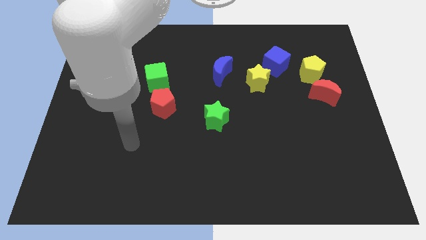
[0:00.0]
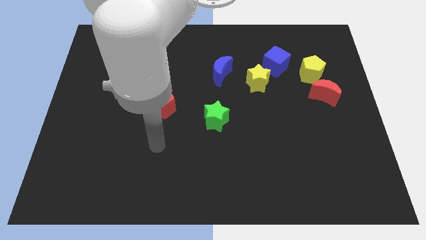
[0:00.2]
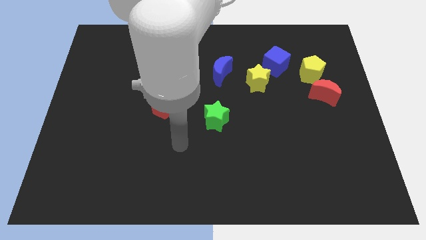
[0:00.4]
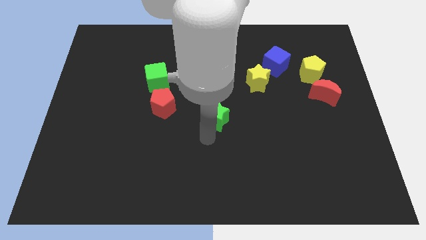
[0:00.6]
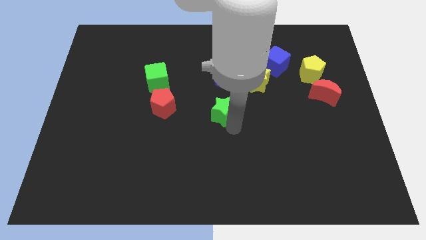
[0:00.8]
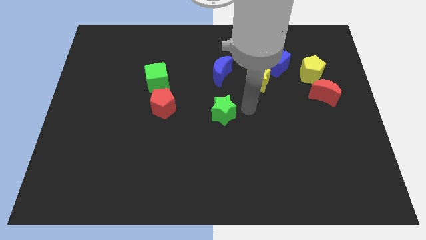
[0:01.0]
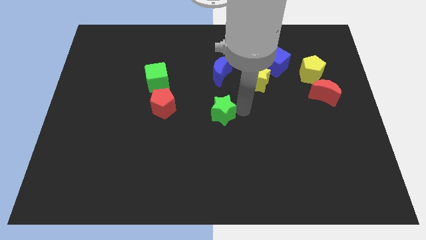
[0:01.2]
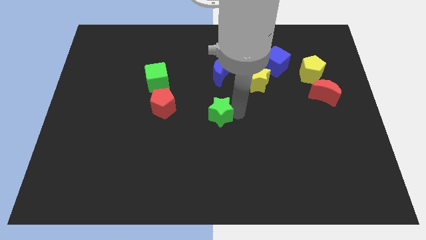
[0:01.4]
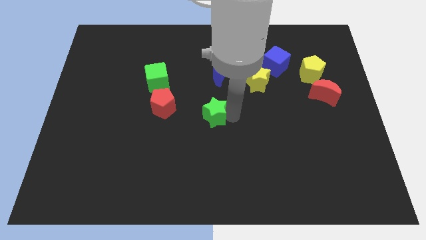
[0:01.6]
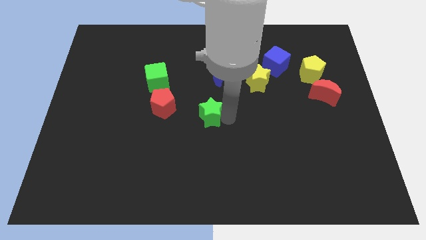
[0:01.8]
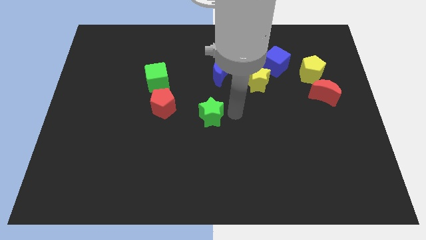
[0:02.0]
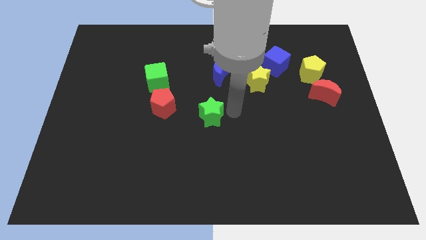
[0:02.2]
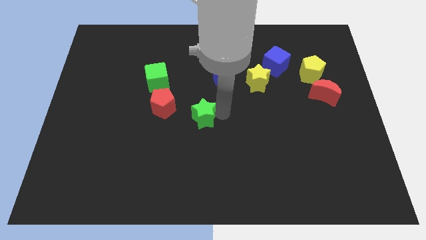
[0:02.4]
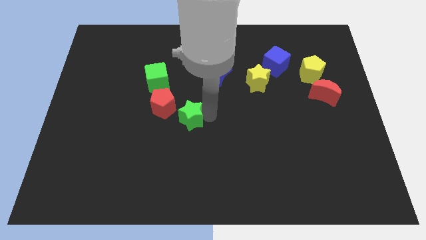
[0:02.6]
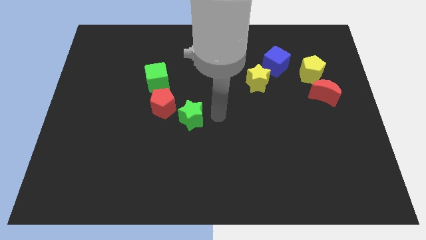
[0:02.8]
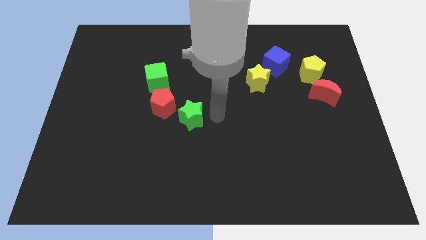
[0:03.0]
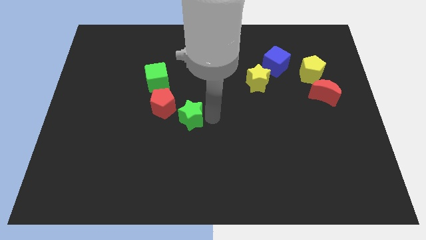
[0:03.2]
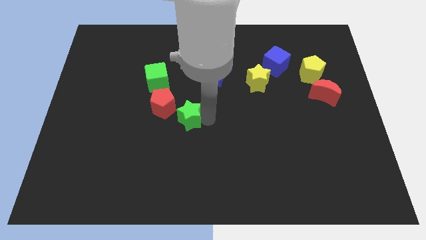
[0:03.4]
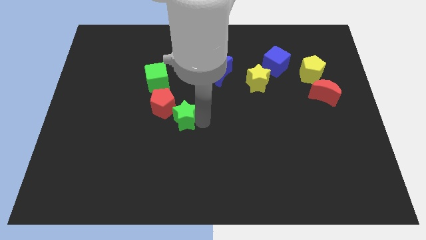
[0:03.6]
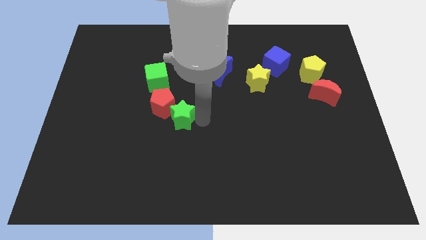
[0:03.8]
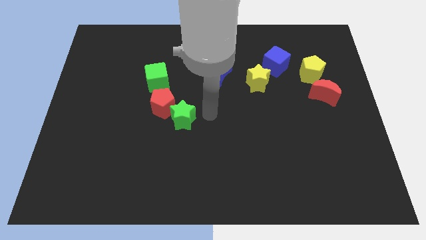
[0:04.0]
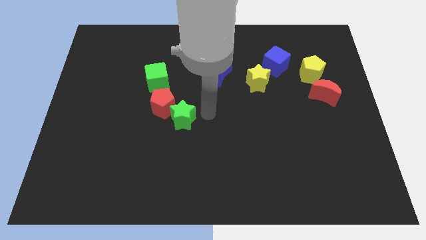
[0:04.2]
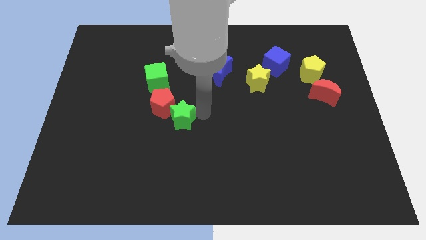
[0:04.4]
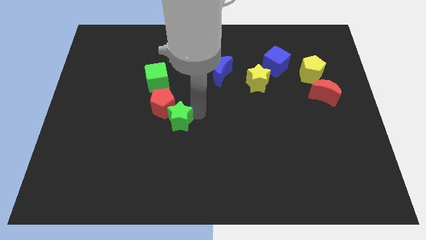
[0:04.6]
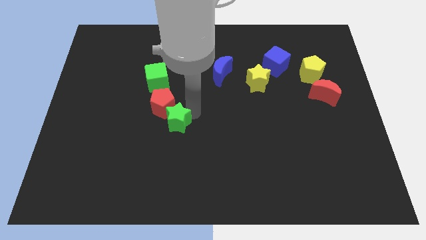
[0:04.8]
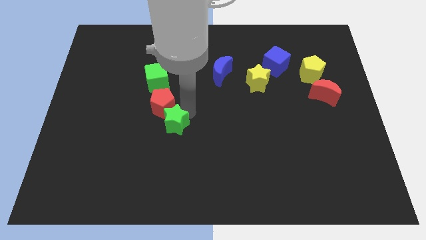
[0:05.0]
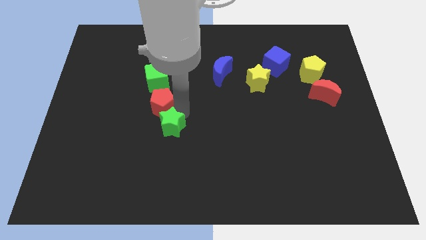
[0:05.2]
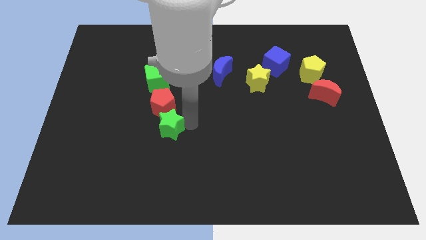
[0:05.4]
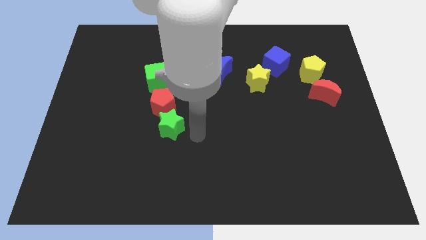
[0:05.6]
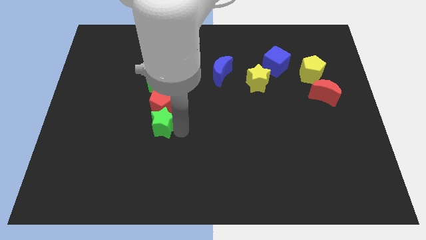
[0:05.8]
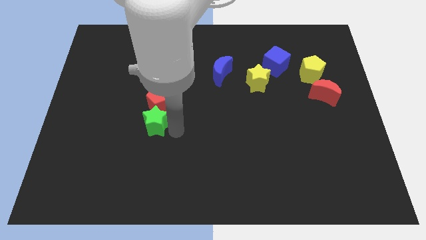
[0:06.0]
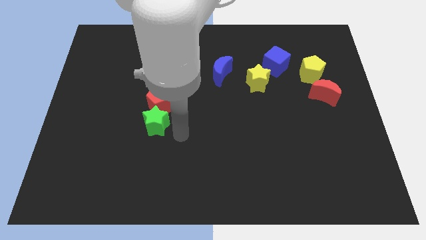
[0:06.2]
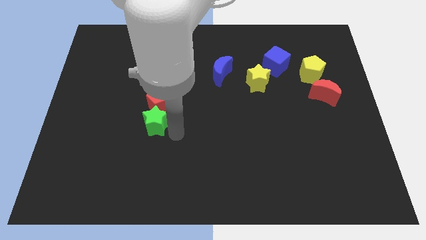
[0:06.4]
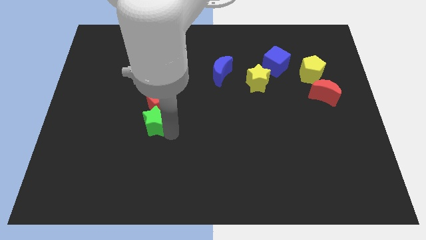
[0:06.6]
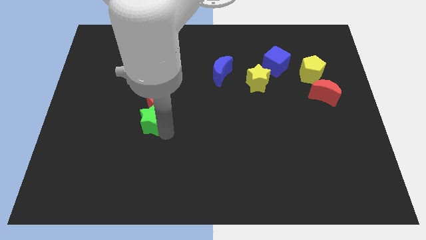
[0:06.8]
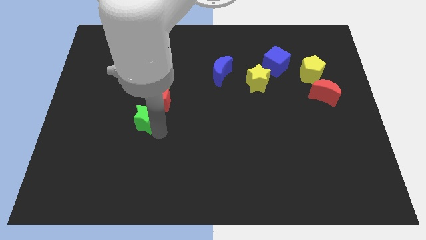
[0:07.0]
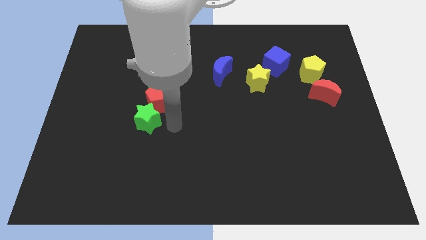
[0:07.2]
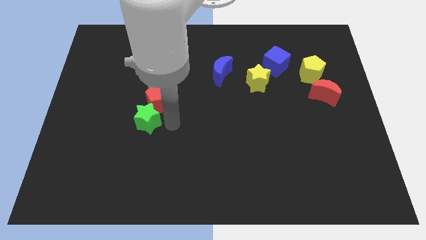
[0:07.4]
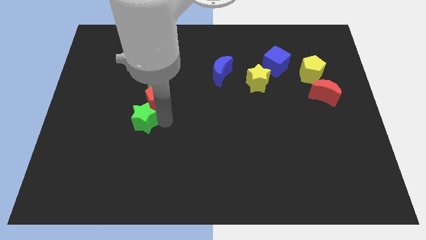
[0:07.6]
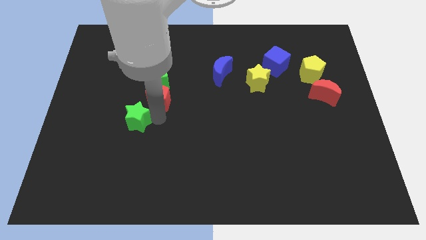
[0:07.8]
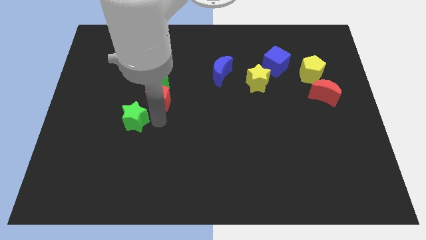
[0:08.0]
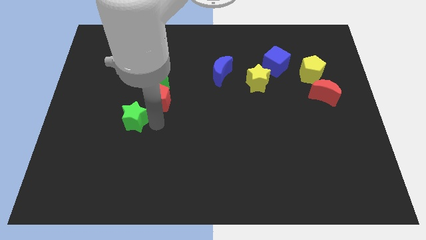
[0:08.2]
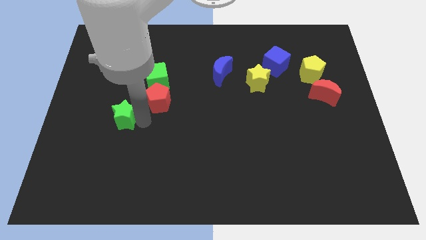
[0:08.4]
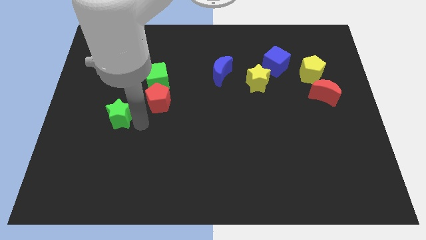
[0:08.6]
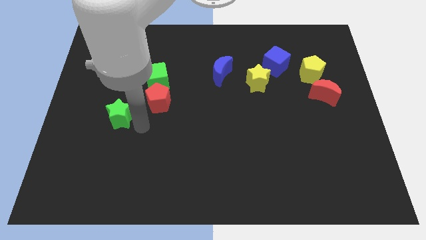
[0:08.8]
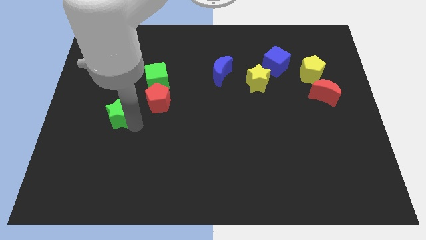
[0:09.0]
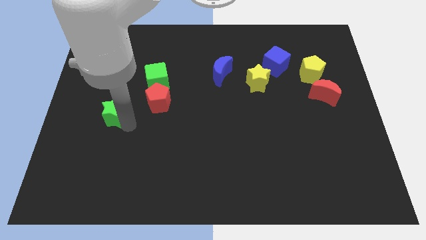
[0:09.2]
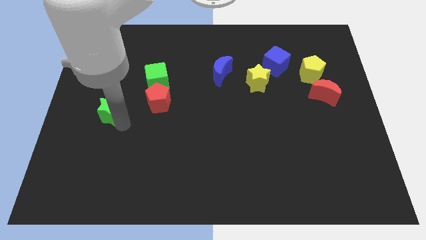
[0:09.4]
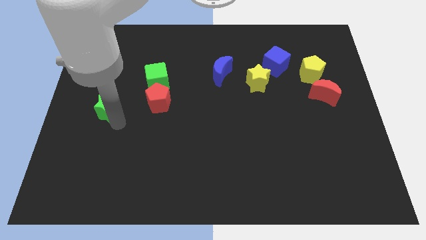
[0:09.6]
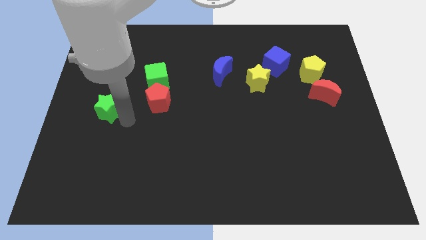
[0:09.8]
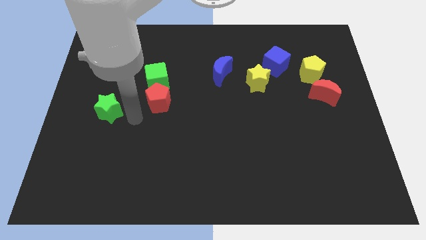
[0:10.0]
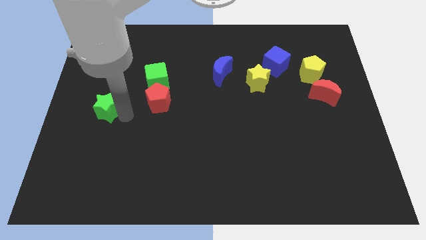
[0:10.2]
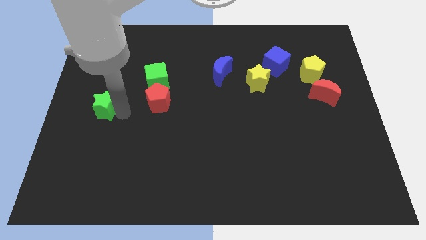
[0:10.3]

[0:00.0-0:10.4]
move the green star to the center left

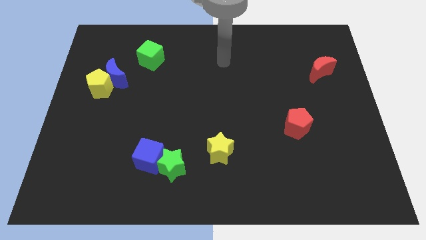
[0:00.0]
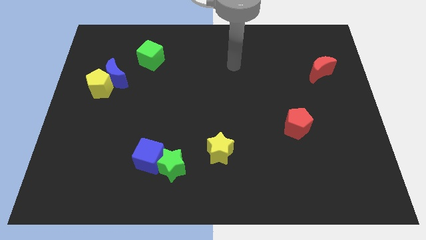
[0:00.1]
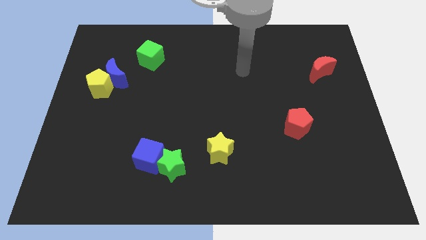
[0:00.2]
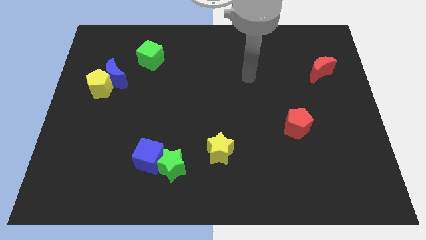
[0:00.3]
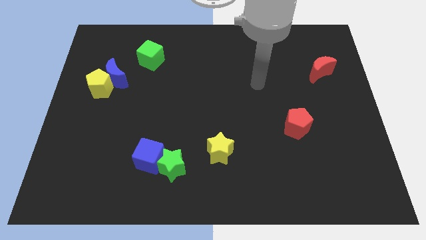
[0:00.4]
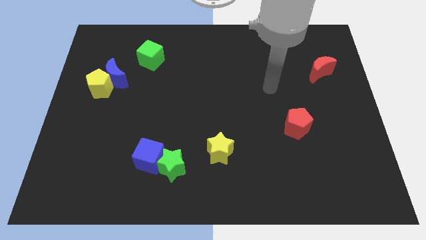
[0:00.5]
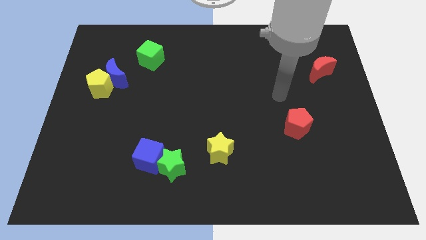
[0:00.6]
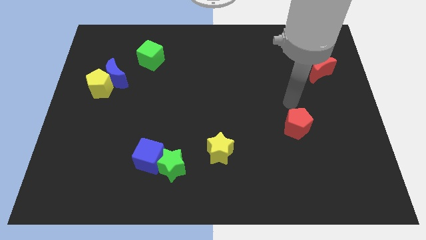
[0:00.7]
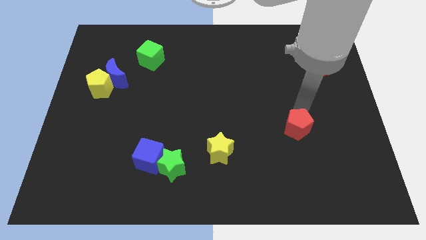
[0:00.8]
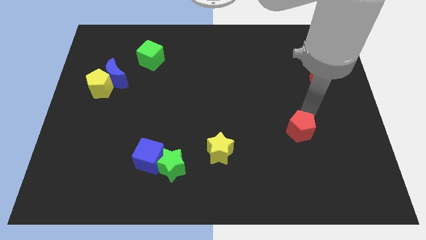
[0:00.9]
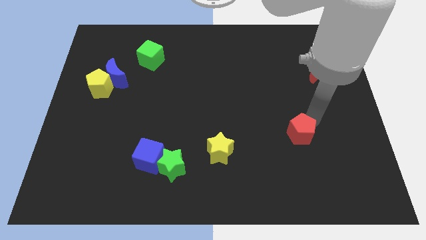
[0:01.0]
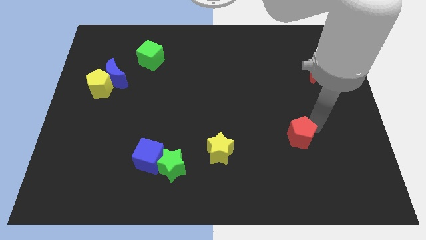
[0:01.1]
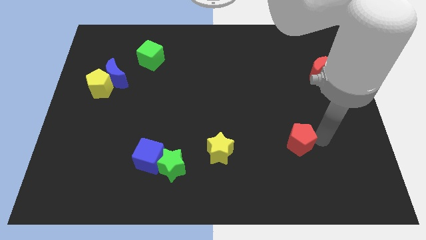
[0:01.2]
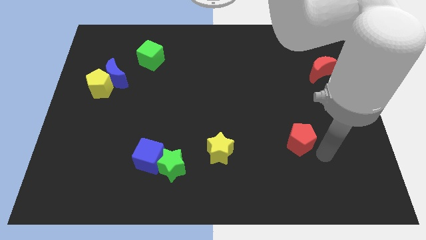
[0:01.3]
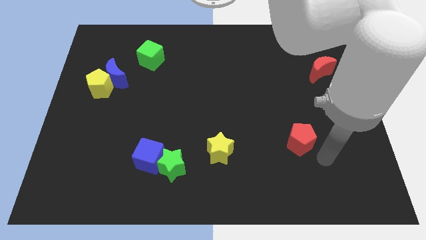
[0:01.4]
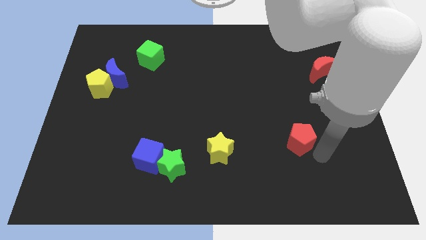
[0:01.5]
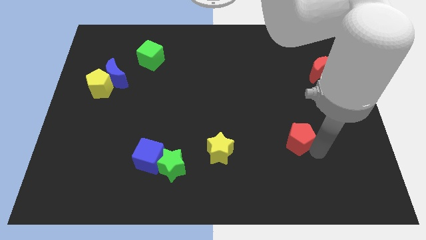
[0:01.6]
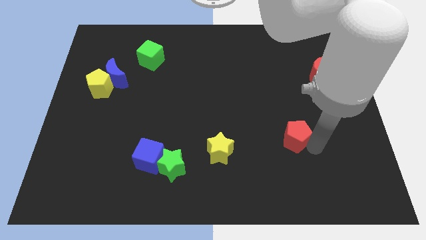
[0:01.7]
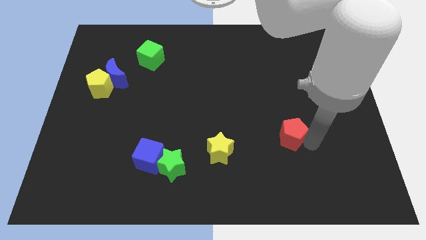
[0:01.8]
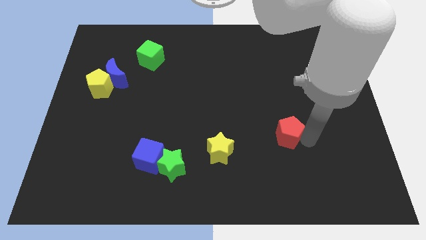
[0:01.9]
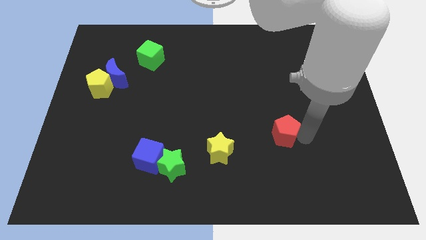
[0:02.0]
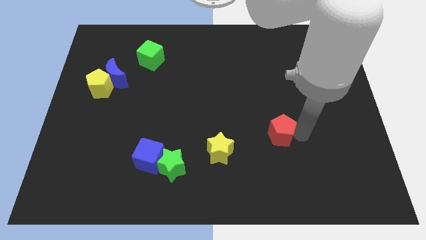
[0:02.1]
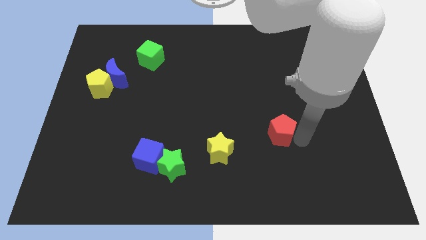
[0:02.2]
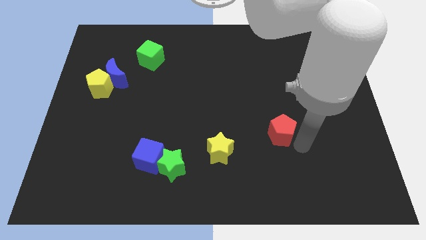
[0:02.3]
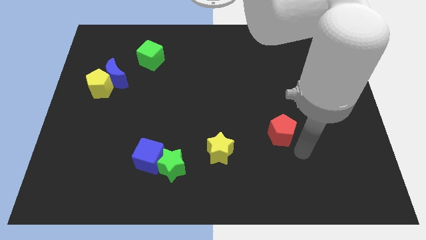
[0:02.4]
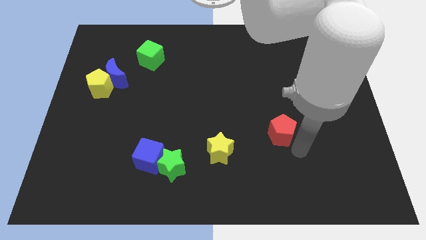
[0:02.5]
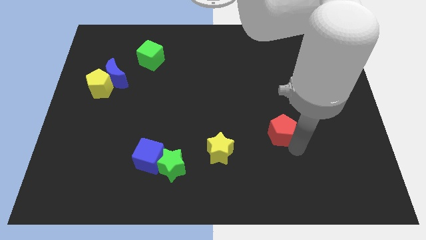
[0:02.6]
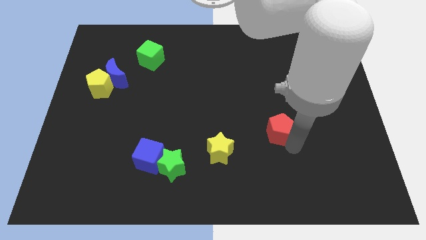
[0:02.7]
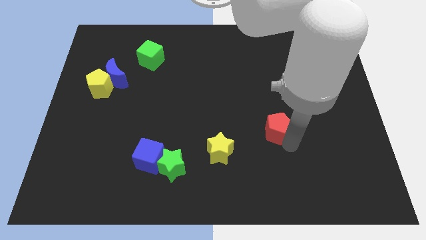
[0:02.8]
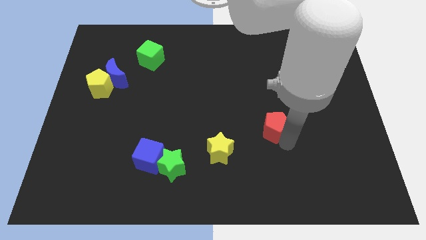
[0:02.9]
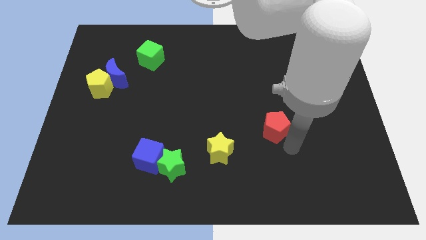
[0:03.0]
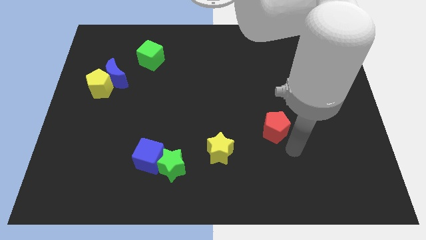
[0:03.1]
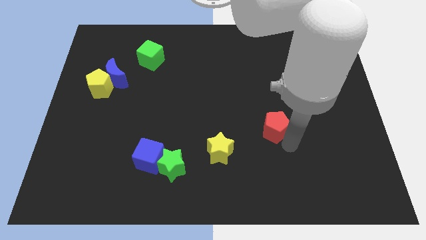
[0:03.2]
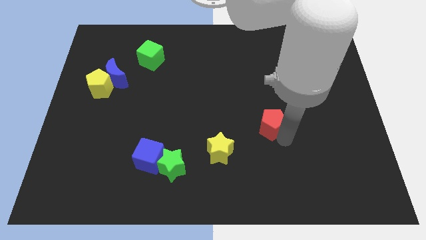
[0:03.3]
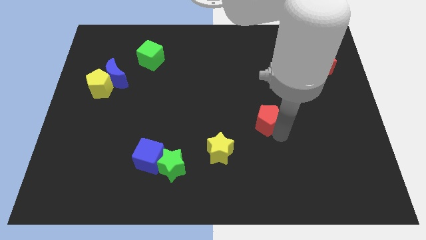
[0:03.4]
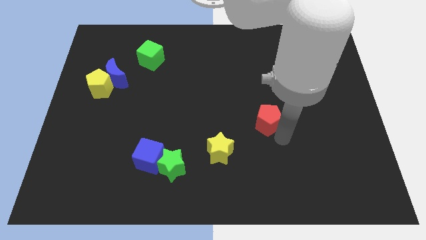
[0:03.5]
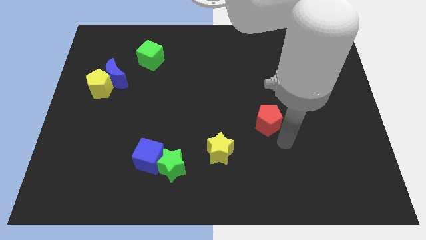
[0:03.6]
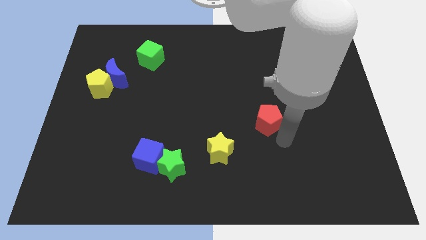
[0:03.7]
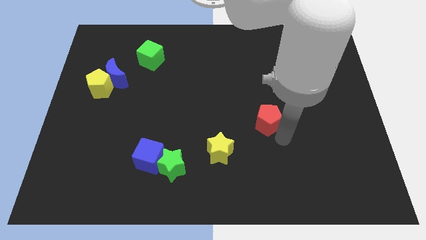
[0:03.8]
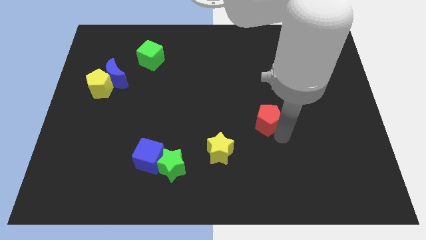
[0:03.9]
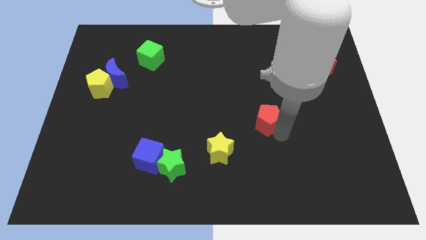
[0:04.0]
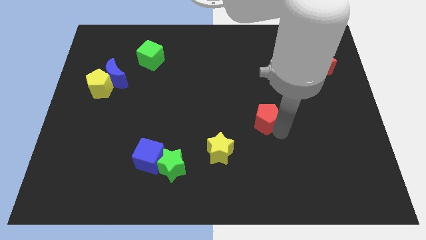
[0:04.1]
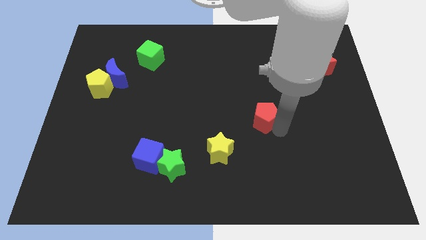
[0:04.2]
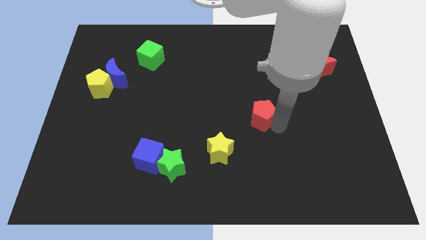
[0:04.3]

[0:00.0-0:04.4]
move the red pentagon to the middle
